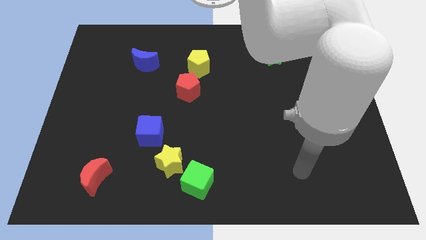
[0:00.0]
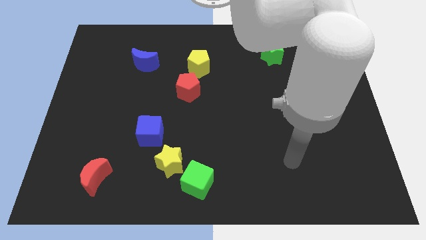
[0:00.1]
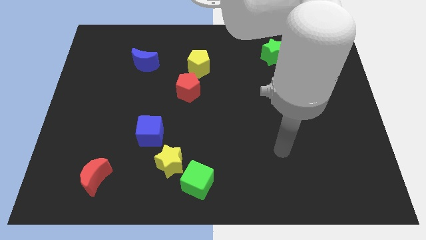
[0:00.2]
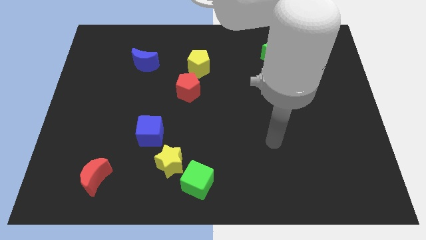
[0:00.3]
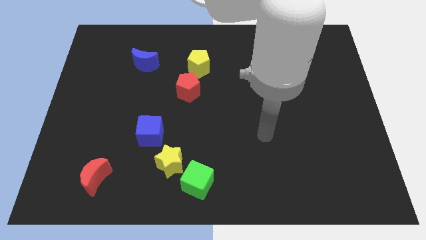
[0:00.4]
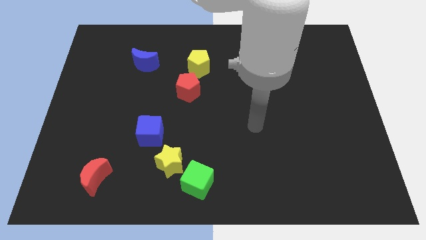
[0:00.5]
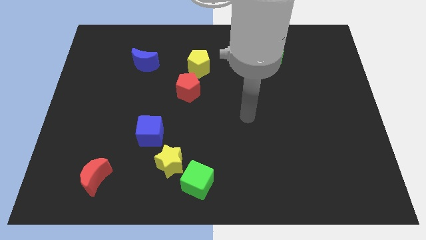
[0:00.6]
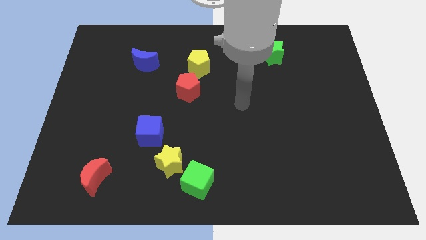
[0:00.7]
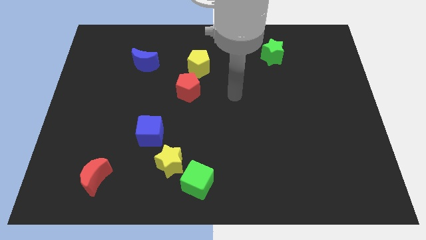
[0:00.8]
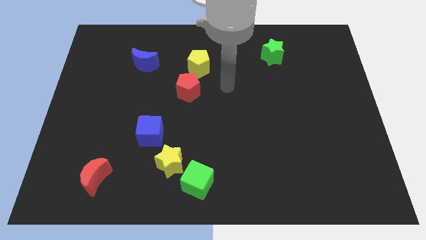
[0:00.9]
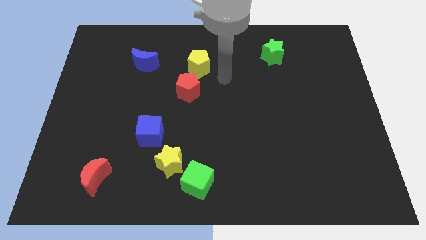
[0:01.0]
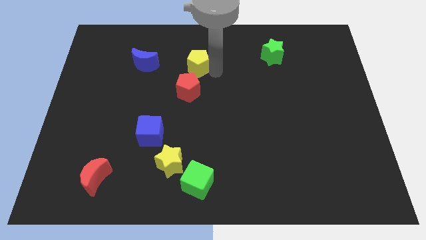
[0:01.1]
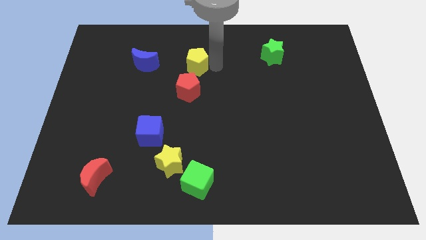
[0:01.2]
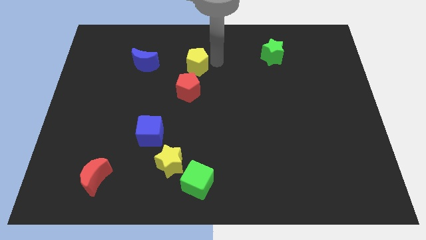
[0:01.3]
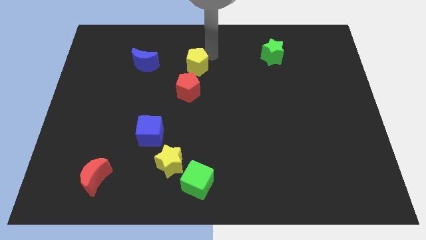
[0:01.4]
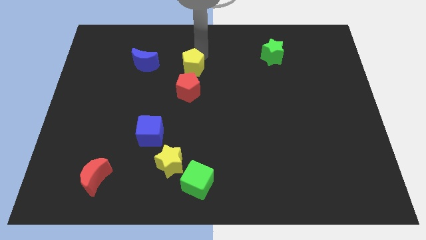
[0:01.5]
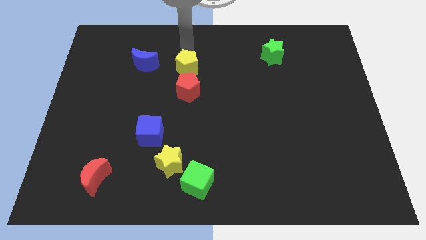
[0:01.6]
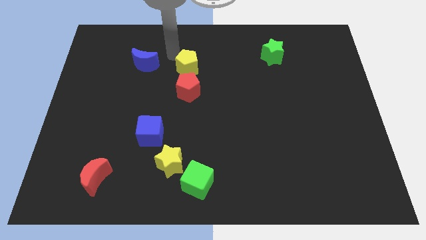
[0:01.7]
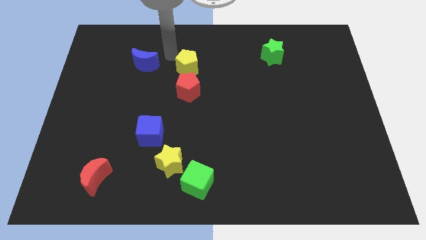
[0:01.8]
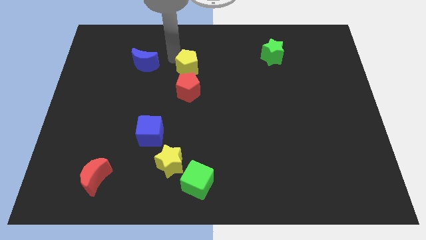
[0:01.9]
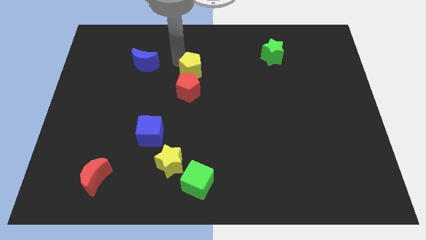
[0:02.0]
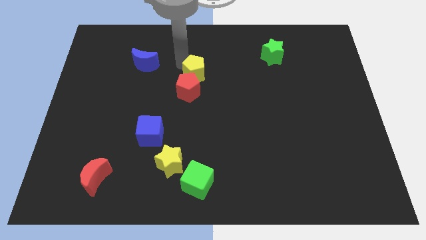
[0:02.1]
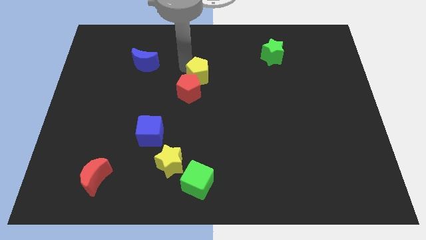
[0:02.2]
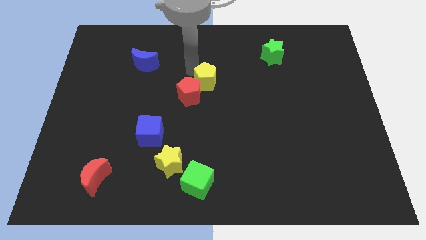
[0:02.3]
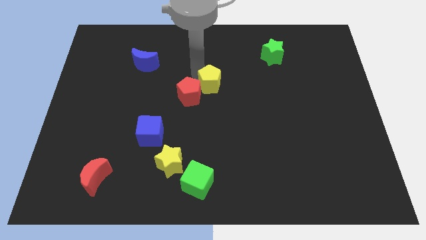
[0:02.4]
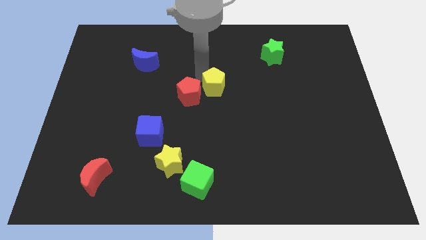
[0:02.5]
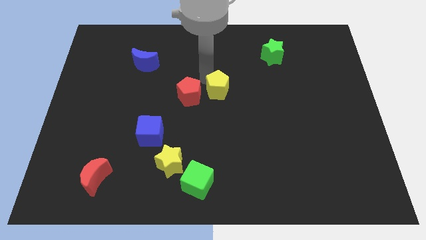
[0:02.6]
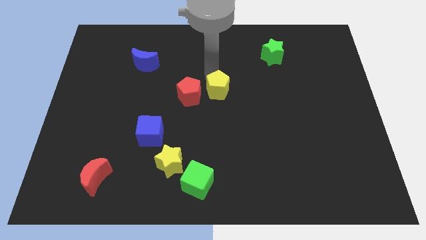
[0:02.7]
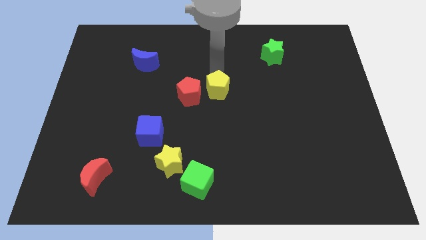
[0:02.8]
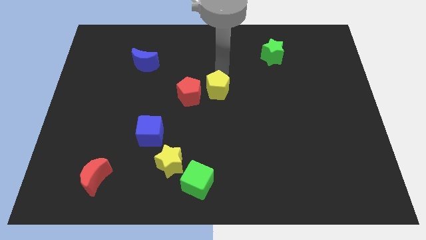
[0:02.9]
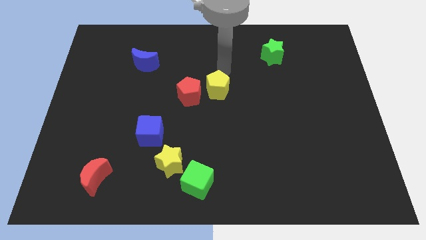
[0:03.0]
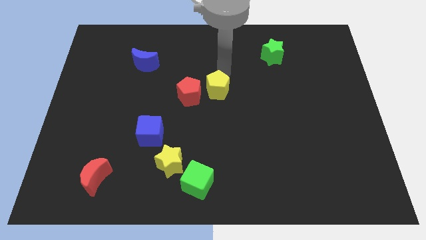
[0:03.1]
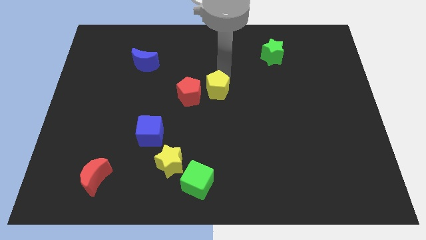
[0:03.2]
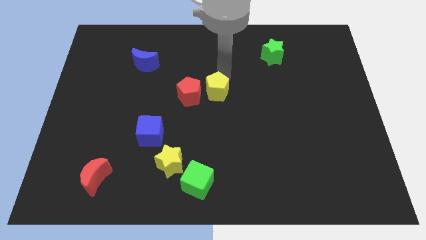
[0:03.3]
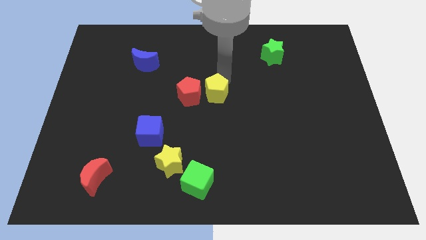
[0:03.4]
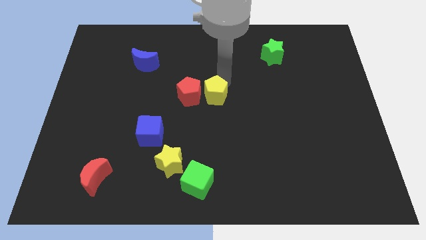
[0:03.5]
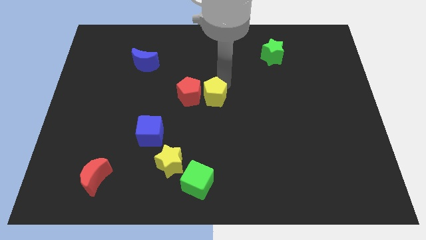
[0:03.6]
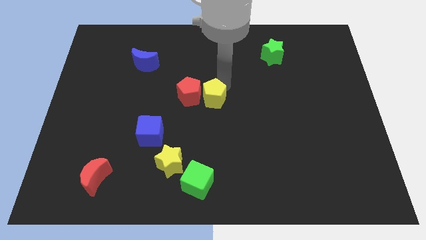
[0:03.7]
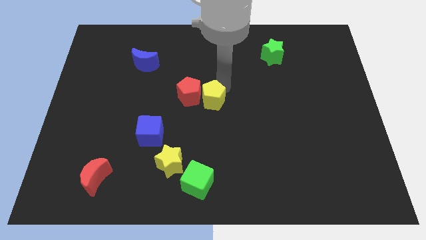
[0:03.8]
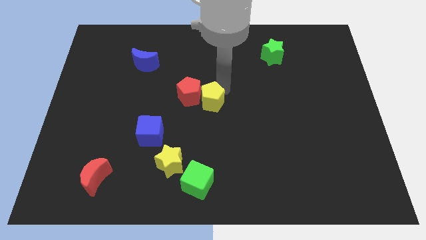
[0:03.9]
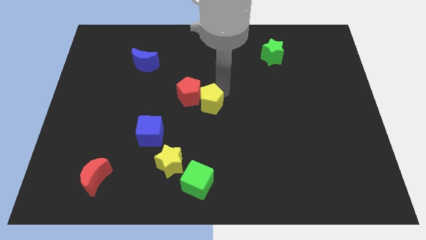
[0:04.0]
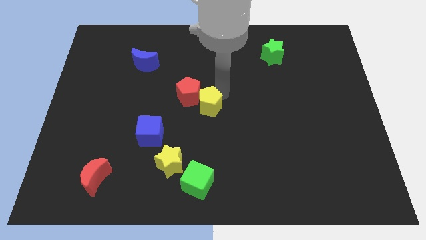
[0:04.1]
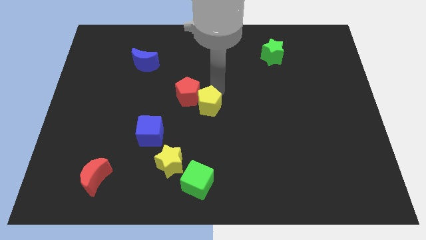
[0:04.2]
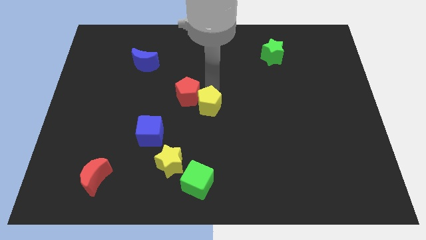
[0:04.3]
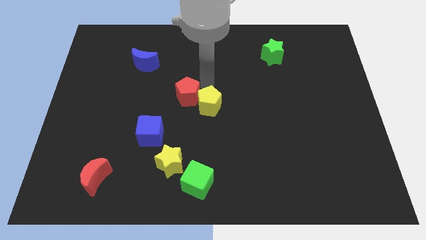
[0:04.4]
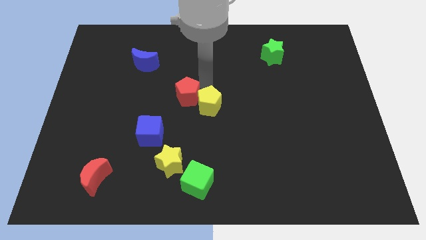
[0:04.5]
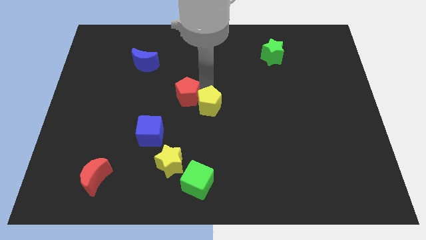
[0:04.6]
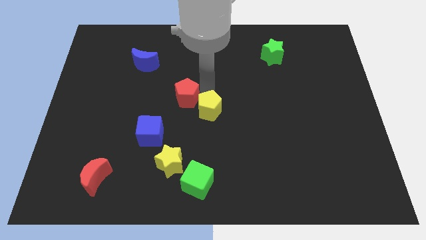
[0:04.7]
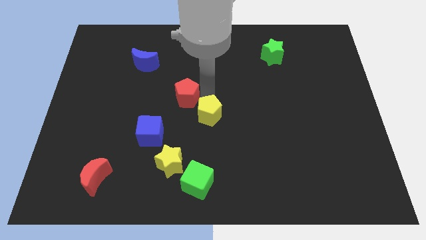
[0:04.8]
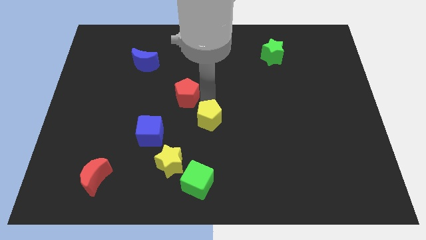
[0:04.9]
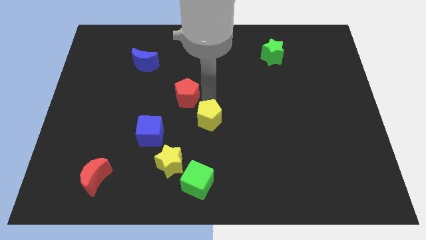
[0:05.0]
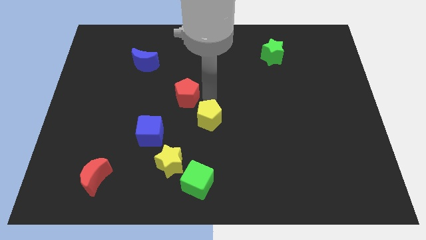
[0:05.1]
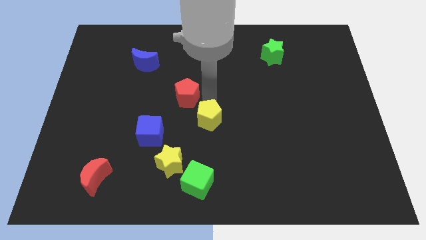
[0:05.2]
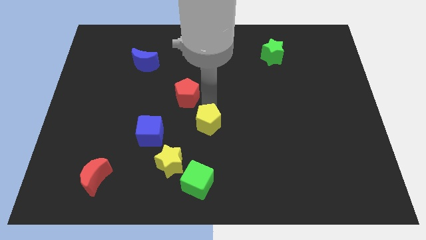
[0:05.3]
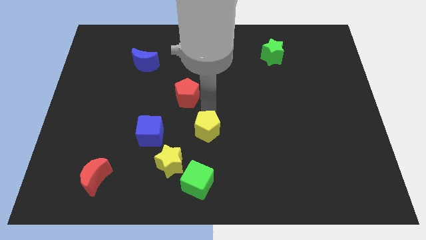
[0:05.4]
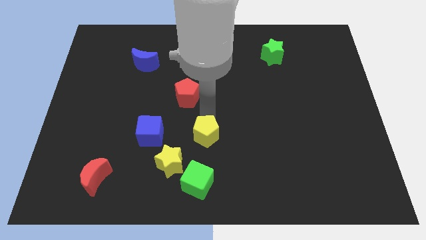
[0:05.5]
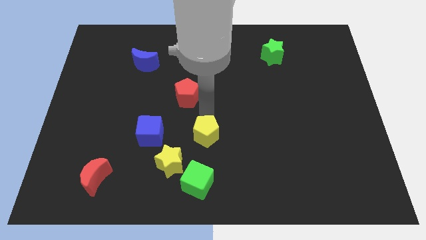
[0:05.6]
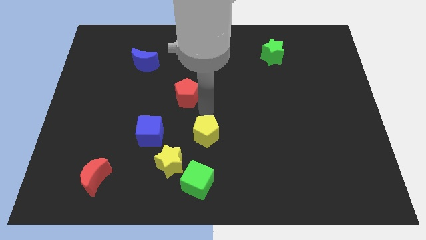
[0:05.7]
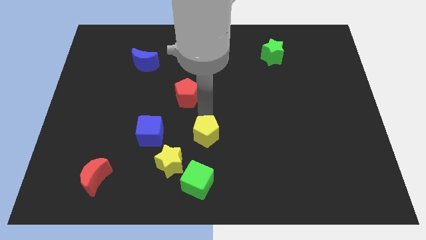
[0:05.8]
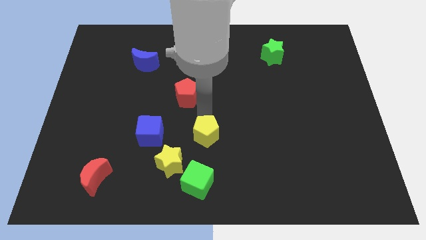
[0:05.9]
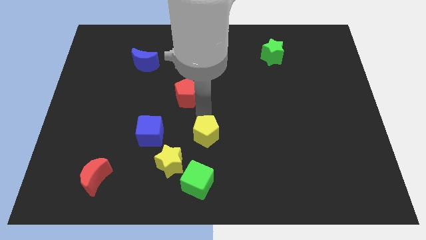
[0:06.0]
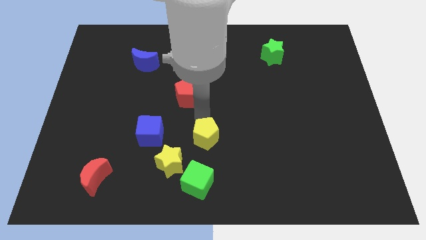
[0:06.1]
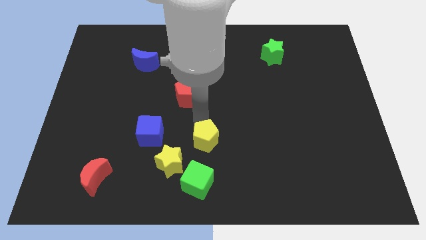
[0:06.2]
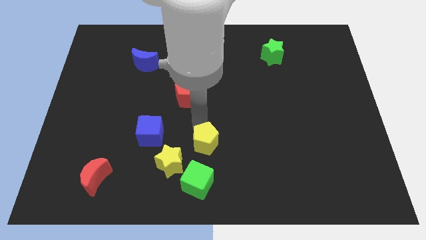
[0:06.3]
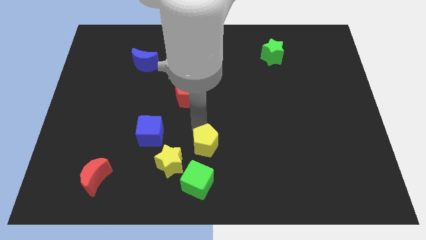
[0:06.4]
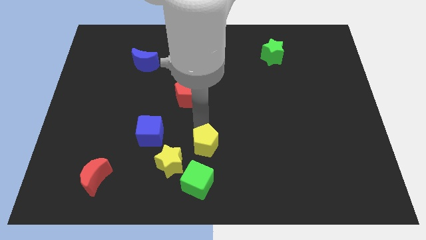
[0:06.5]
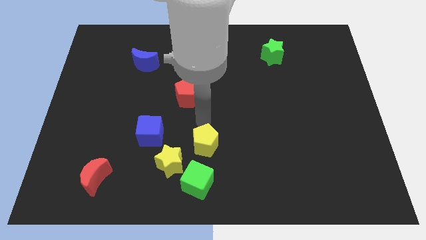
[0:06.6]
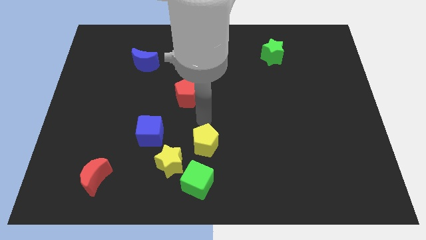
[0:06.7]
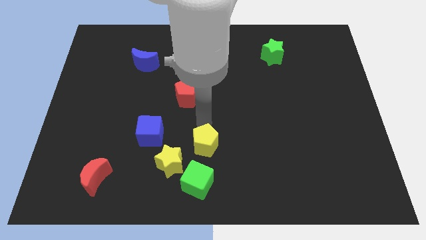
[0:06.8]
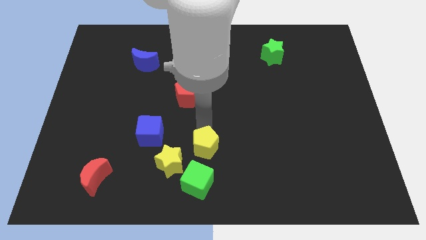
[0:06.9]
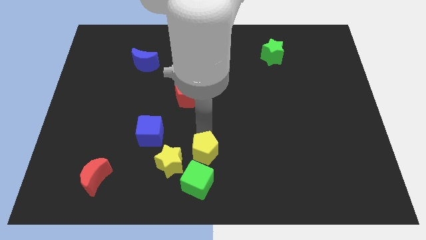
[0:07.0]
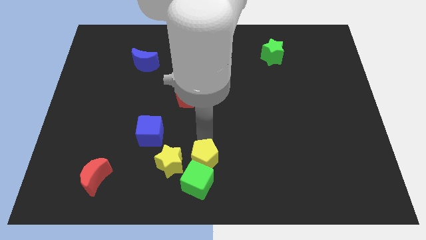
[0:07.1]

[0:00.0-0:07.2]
put the yellow pentagon to the green cube
